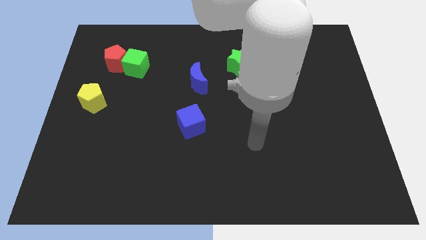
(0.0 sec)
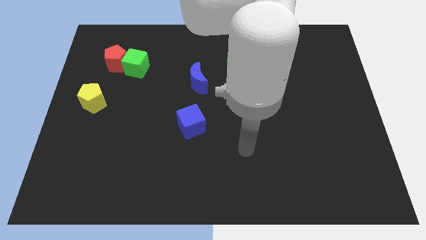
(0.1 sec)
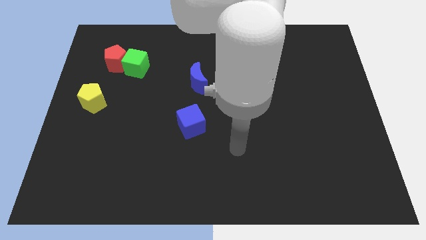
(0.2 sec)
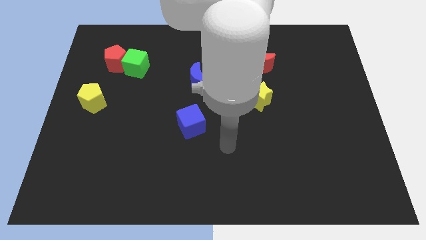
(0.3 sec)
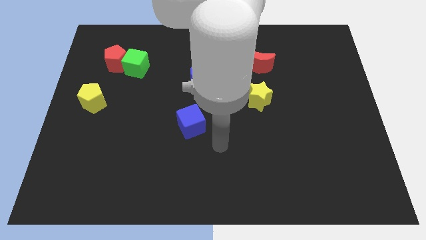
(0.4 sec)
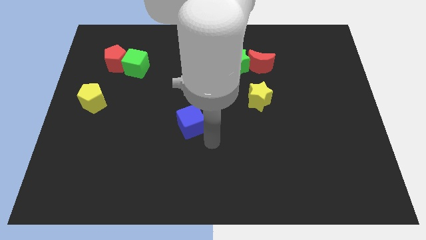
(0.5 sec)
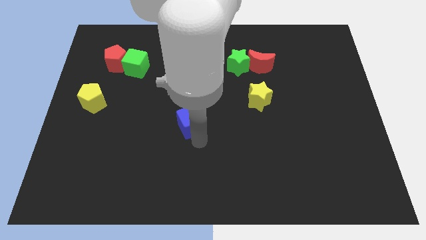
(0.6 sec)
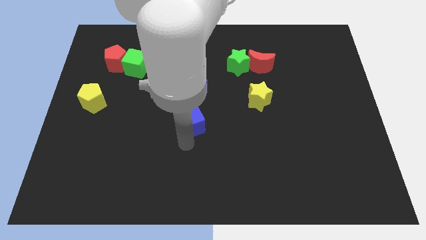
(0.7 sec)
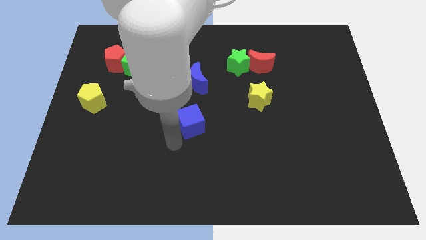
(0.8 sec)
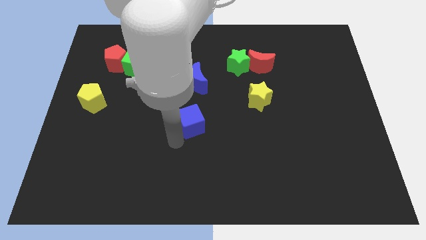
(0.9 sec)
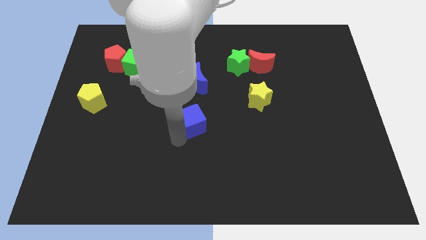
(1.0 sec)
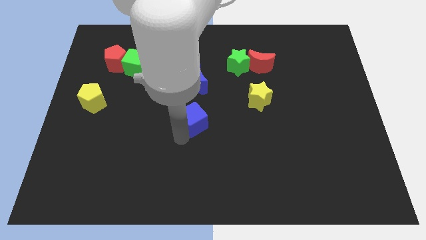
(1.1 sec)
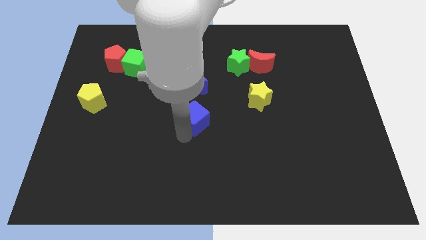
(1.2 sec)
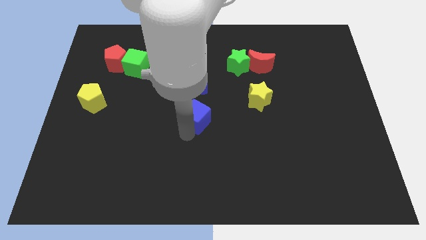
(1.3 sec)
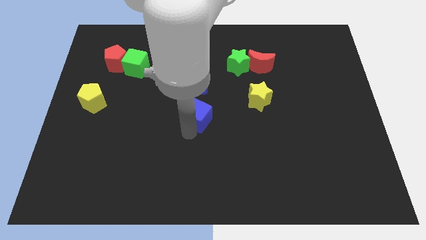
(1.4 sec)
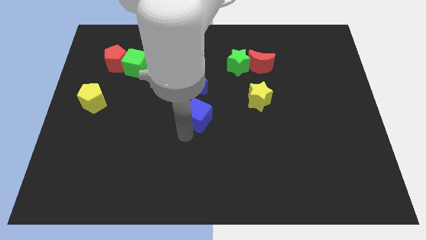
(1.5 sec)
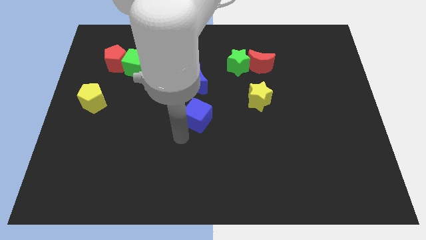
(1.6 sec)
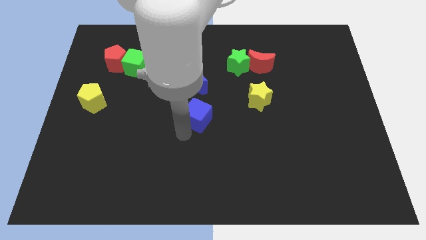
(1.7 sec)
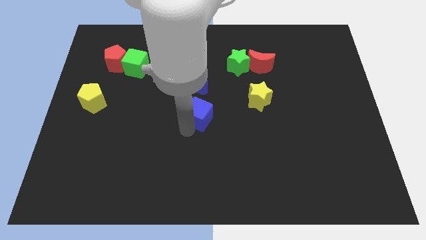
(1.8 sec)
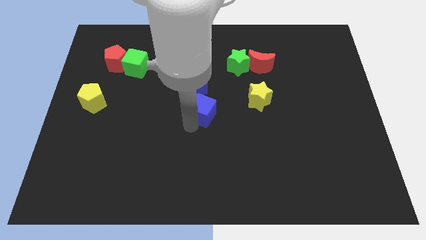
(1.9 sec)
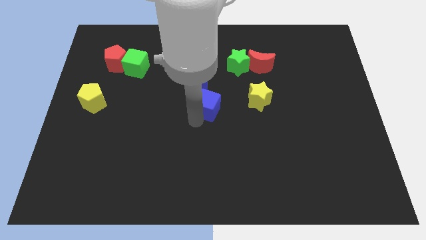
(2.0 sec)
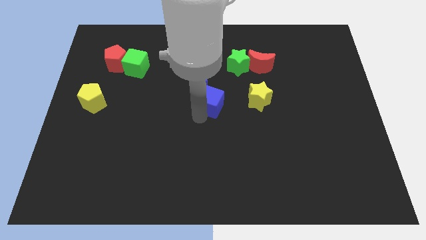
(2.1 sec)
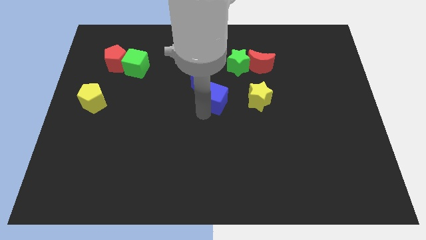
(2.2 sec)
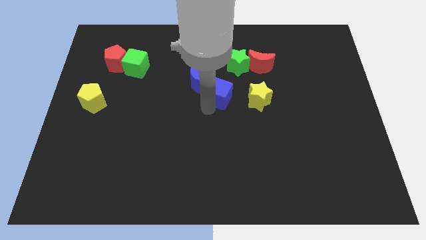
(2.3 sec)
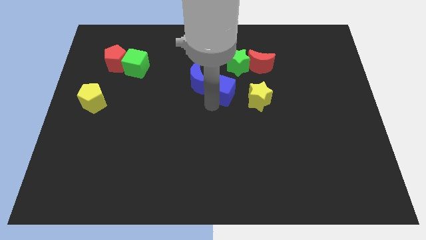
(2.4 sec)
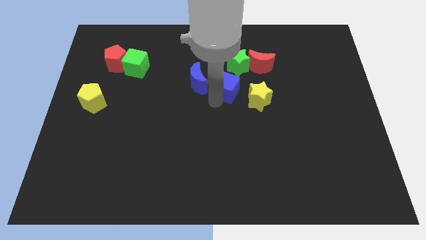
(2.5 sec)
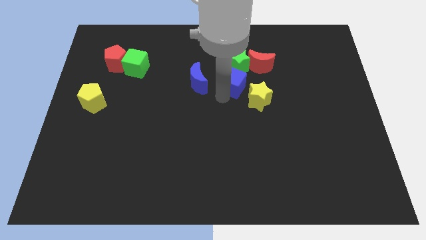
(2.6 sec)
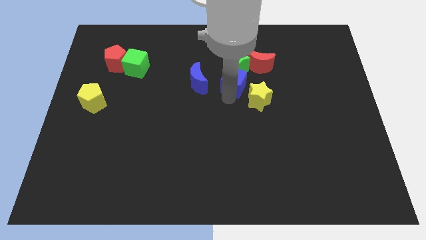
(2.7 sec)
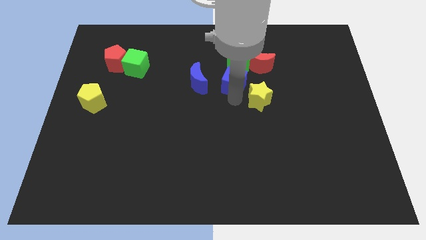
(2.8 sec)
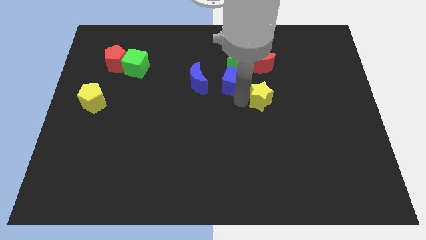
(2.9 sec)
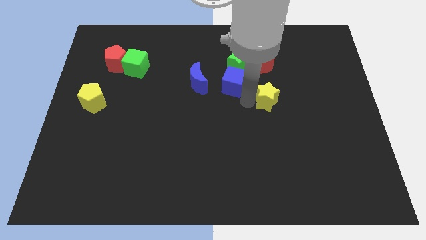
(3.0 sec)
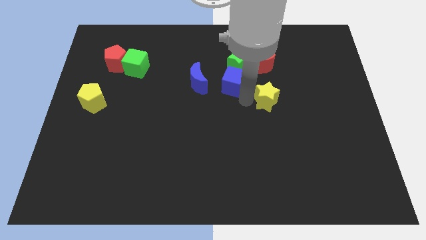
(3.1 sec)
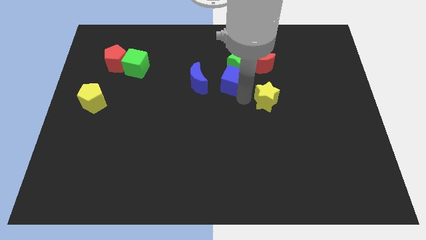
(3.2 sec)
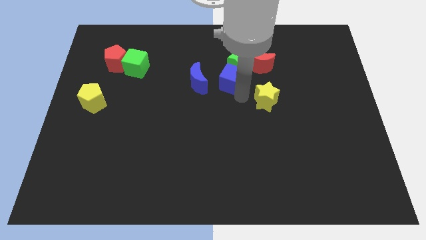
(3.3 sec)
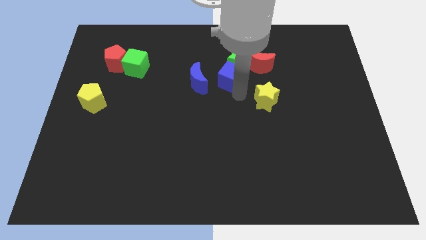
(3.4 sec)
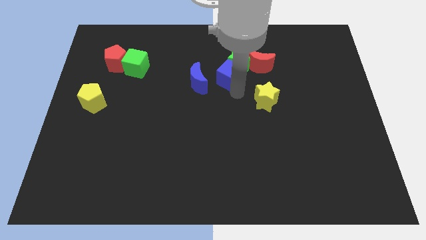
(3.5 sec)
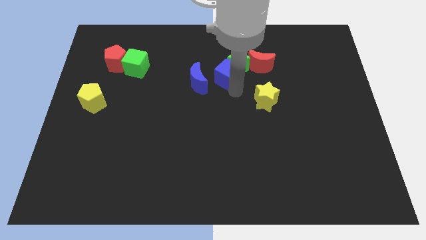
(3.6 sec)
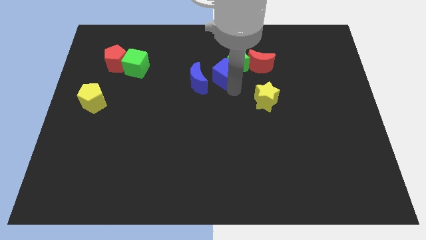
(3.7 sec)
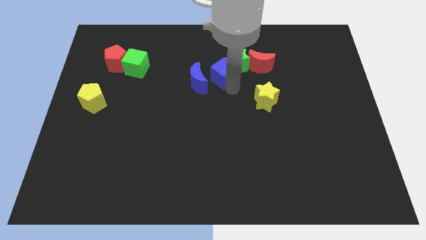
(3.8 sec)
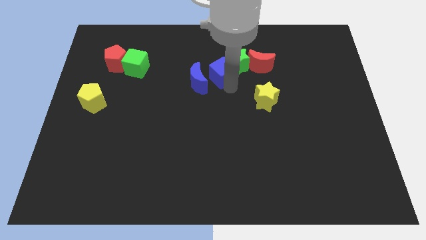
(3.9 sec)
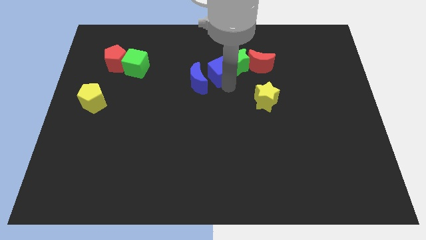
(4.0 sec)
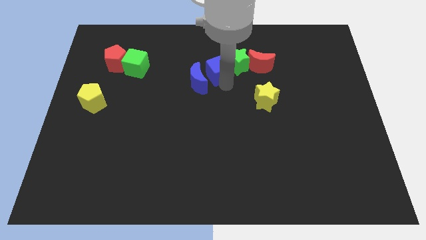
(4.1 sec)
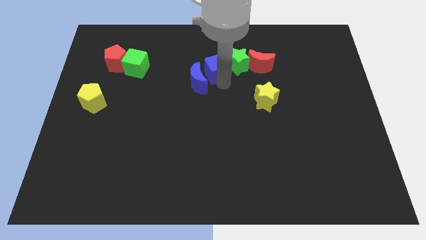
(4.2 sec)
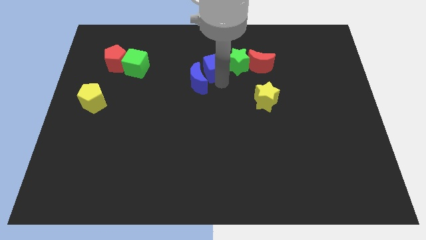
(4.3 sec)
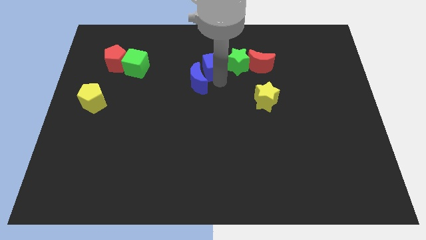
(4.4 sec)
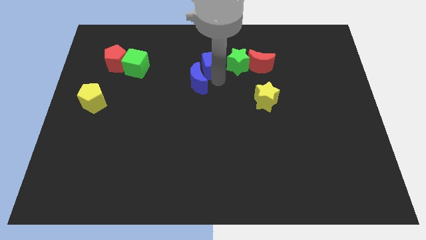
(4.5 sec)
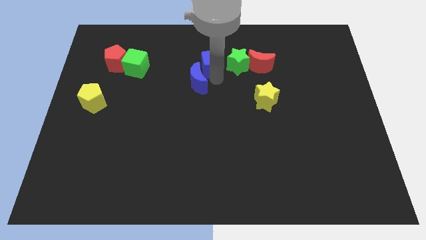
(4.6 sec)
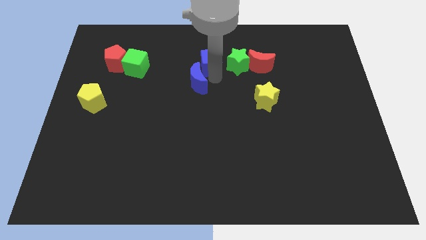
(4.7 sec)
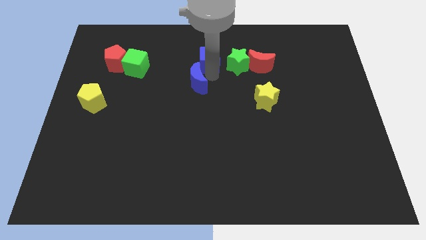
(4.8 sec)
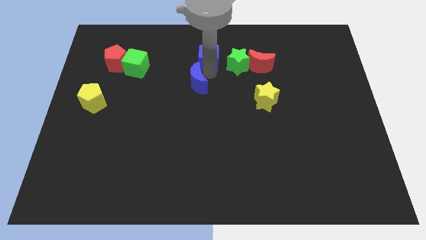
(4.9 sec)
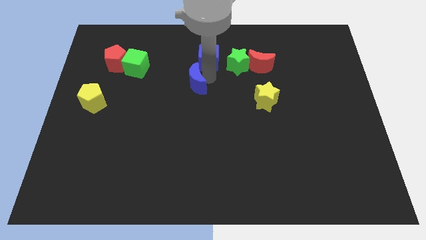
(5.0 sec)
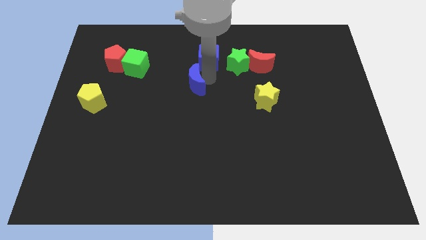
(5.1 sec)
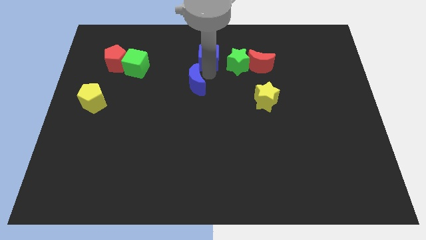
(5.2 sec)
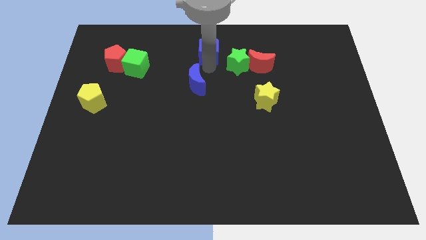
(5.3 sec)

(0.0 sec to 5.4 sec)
push the blue cube to the towards your base

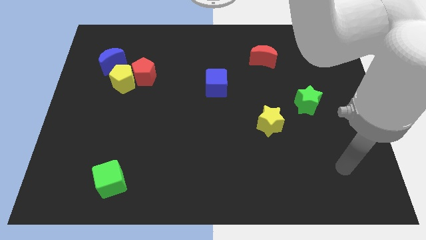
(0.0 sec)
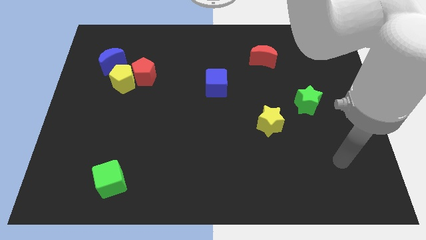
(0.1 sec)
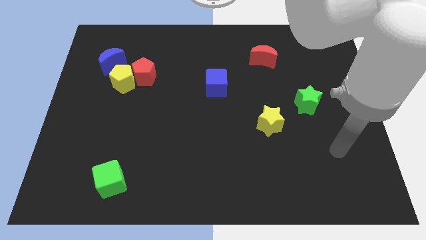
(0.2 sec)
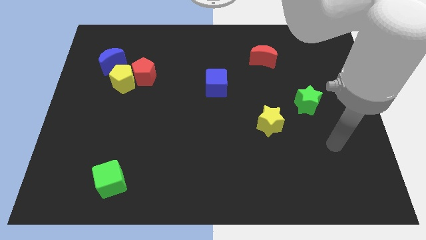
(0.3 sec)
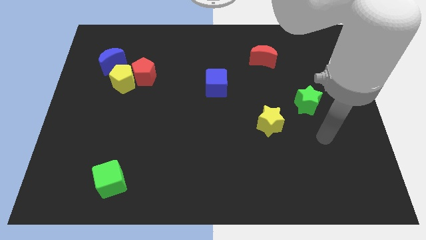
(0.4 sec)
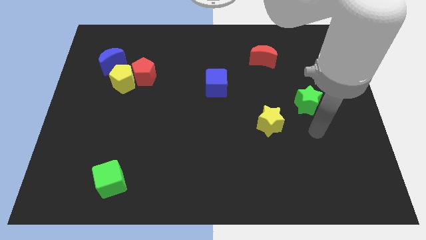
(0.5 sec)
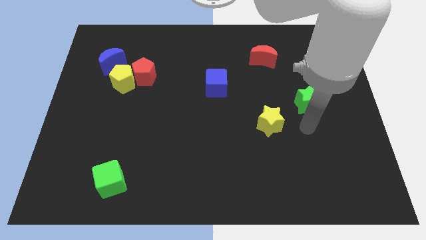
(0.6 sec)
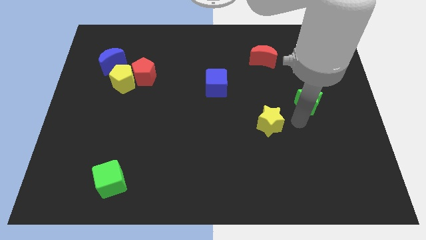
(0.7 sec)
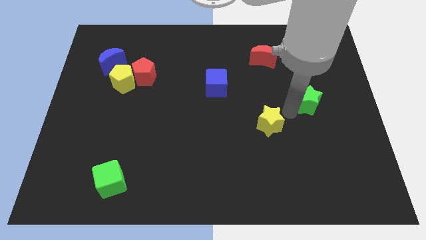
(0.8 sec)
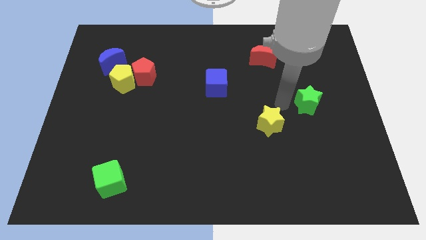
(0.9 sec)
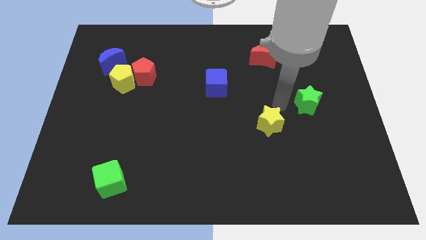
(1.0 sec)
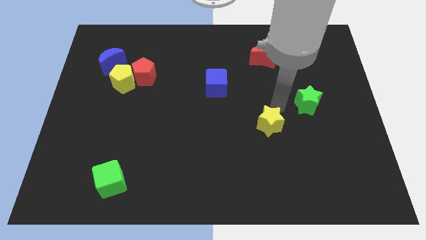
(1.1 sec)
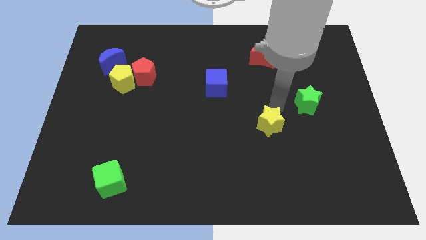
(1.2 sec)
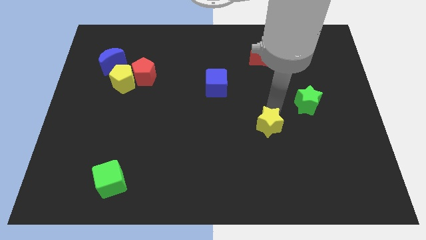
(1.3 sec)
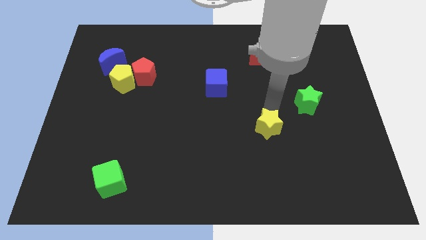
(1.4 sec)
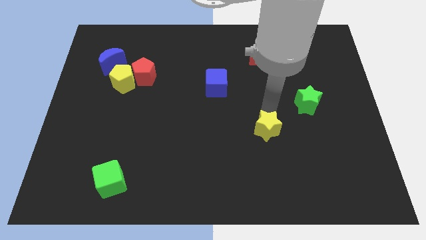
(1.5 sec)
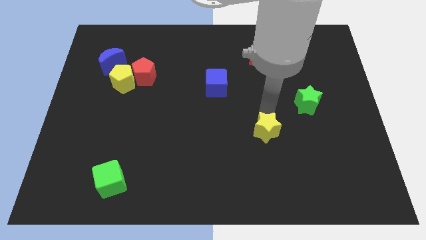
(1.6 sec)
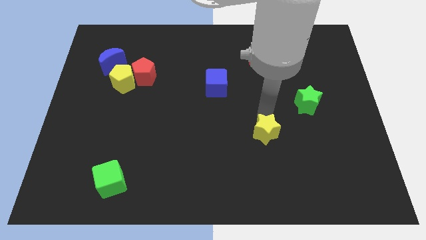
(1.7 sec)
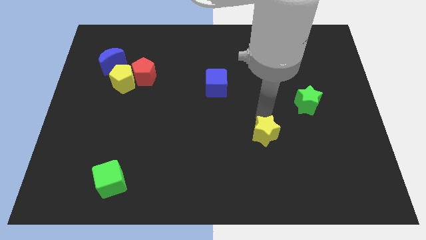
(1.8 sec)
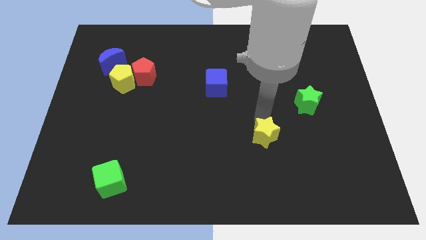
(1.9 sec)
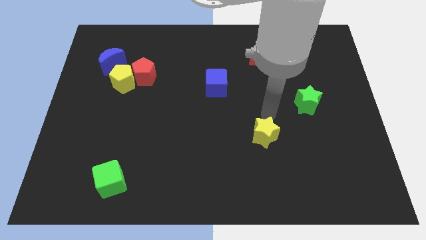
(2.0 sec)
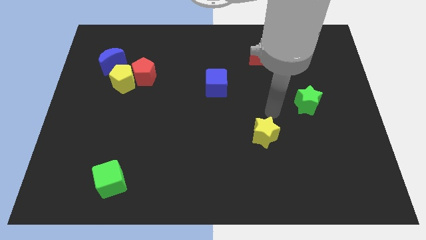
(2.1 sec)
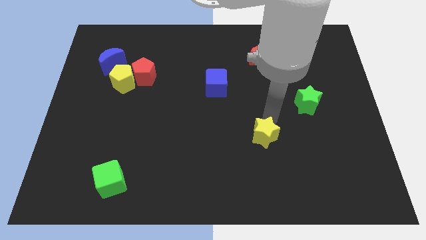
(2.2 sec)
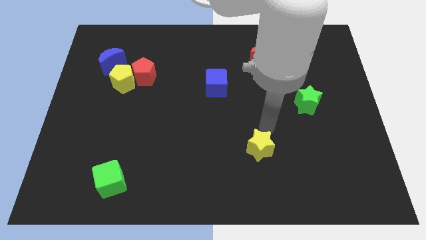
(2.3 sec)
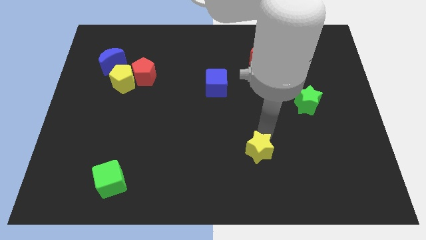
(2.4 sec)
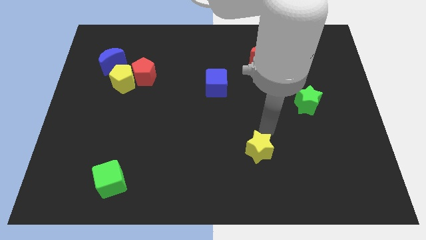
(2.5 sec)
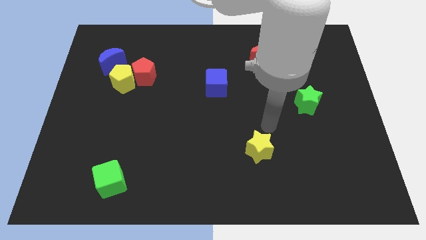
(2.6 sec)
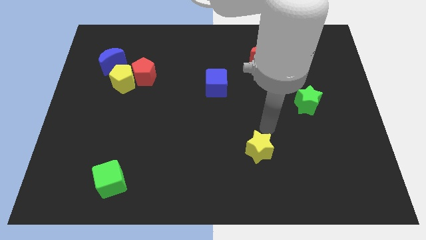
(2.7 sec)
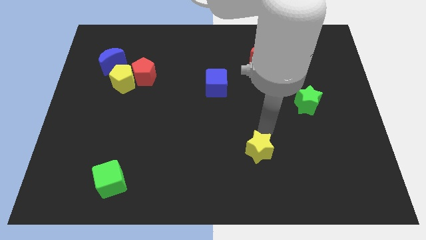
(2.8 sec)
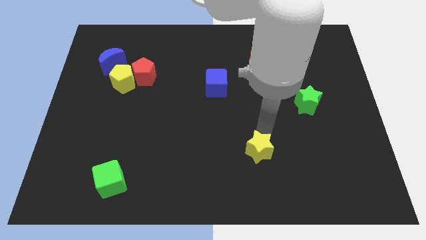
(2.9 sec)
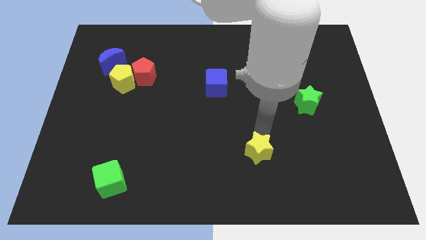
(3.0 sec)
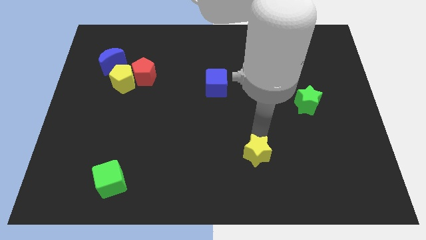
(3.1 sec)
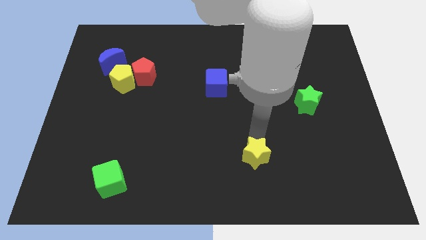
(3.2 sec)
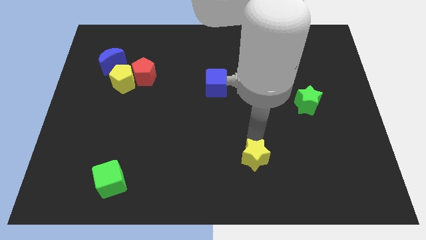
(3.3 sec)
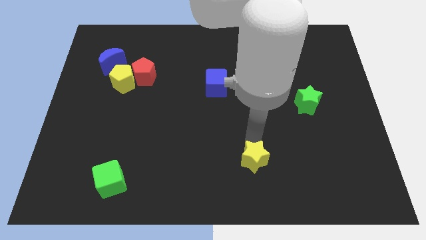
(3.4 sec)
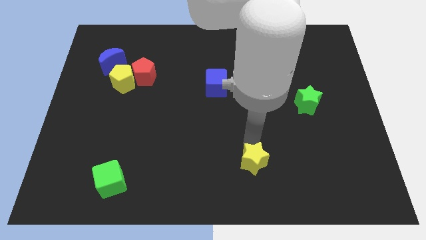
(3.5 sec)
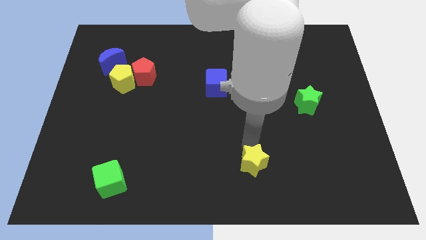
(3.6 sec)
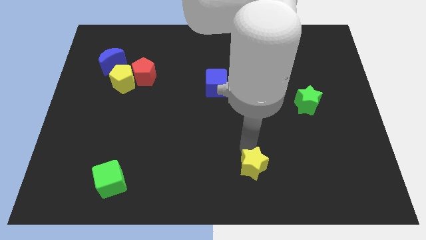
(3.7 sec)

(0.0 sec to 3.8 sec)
push the yellow star to the bottom
